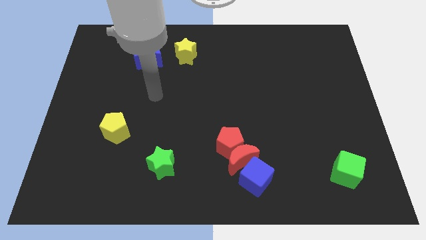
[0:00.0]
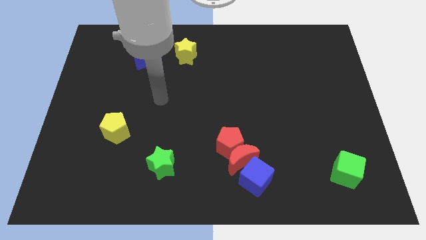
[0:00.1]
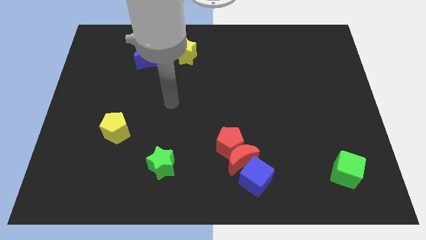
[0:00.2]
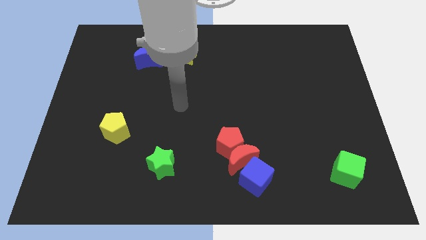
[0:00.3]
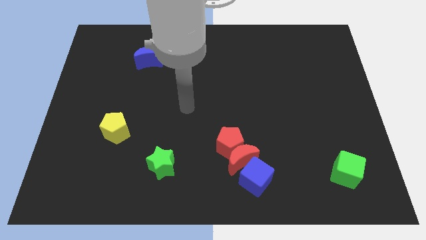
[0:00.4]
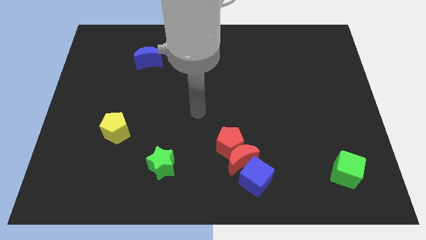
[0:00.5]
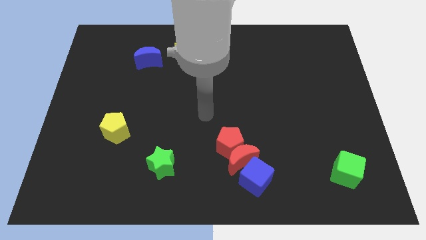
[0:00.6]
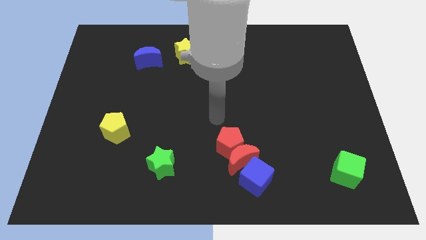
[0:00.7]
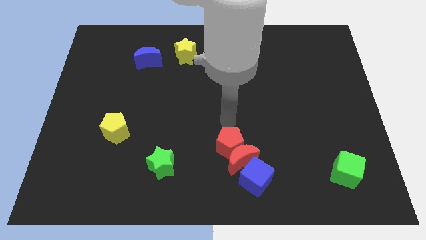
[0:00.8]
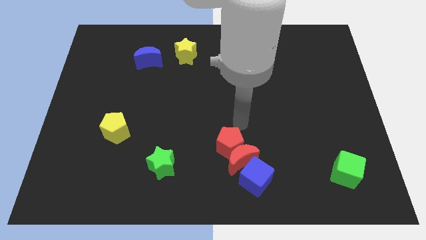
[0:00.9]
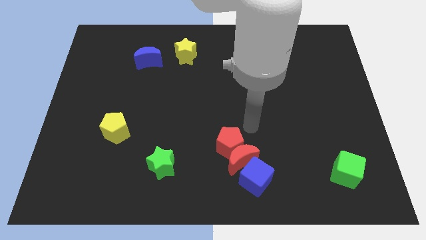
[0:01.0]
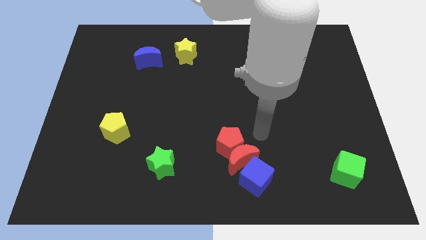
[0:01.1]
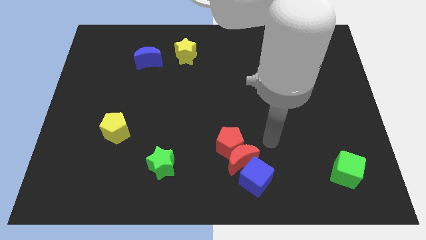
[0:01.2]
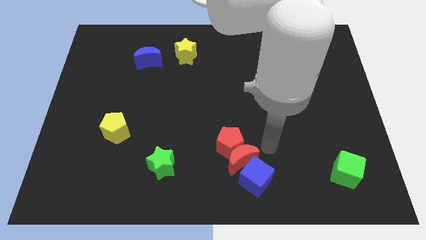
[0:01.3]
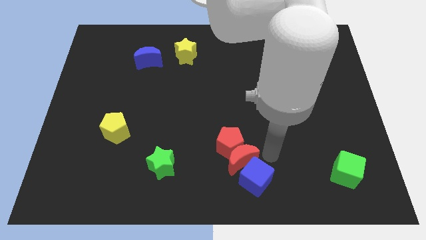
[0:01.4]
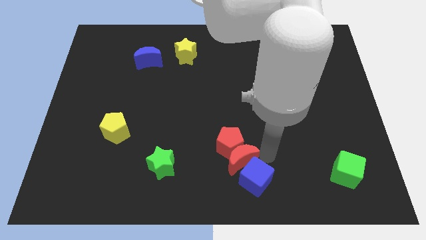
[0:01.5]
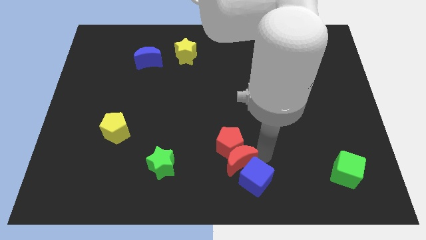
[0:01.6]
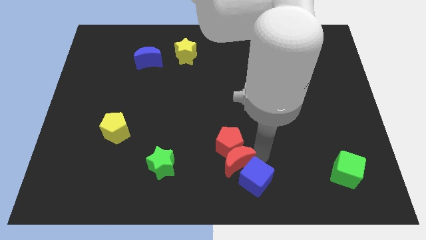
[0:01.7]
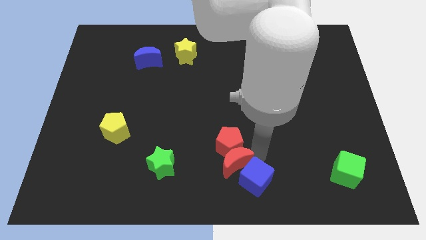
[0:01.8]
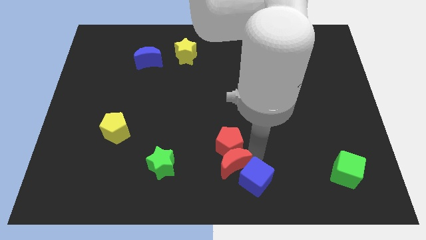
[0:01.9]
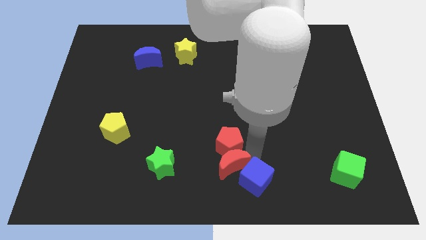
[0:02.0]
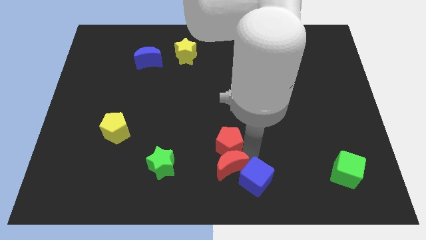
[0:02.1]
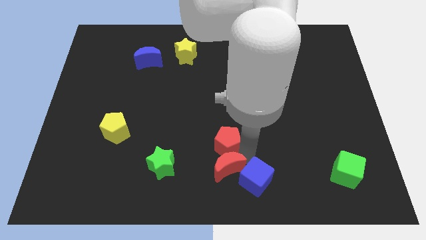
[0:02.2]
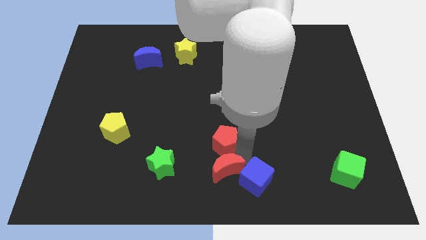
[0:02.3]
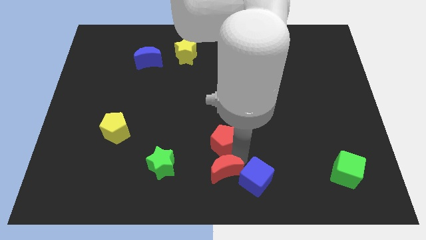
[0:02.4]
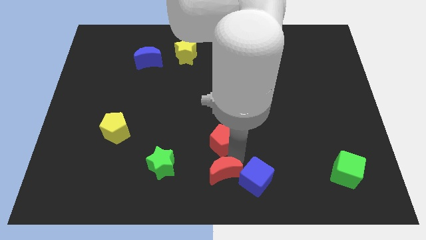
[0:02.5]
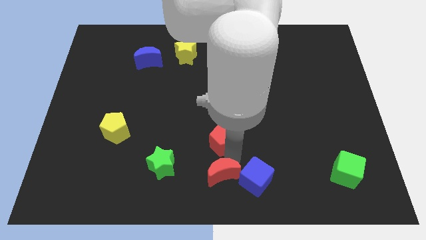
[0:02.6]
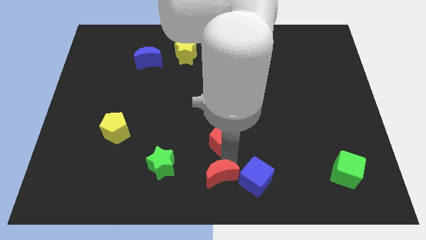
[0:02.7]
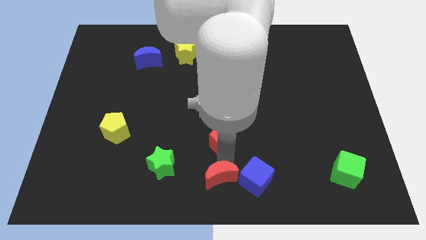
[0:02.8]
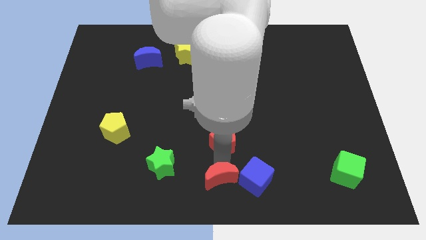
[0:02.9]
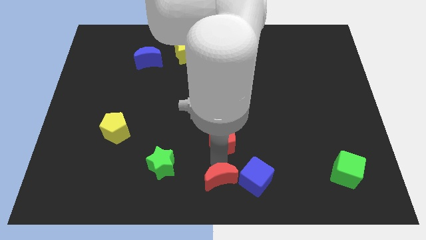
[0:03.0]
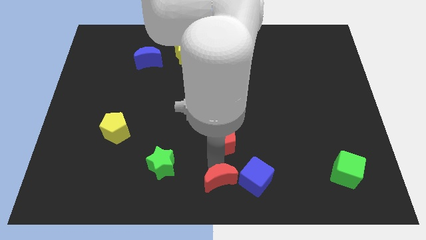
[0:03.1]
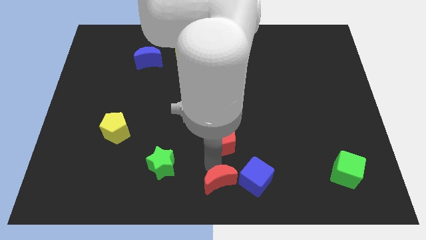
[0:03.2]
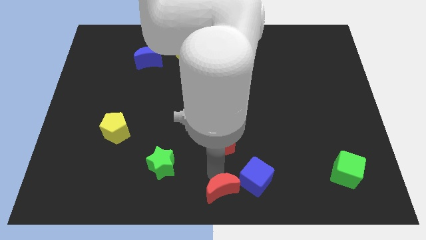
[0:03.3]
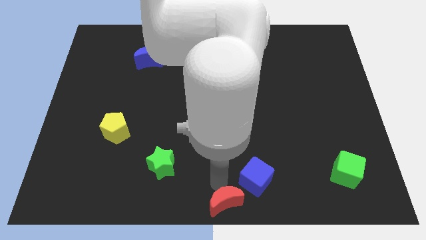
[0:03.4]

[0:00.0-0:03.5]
separate the red moon from the red pentagon and blue cube

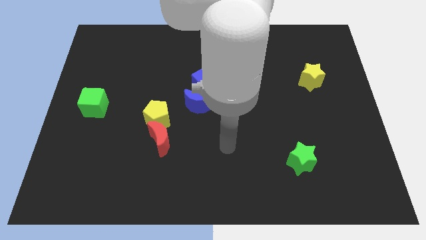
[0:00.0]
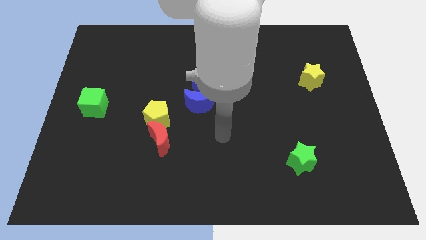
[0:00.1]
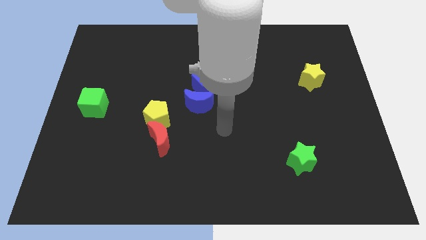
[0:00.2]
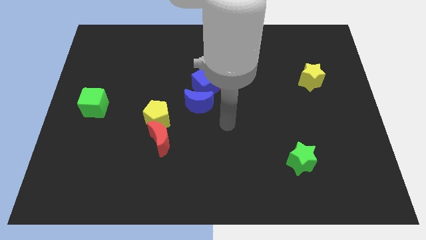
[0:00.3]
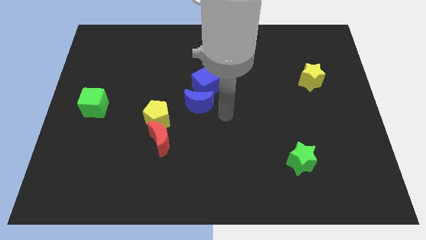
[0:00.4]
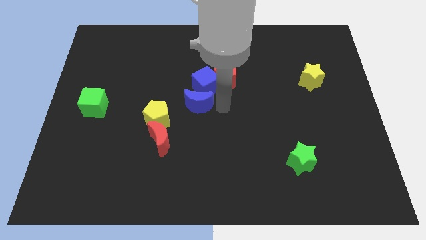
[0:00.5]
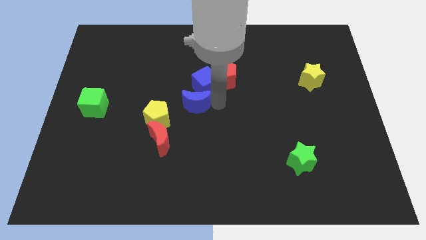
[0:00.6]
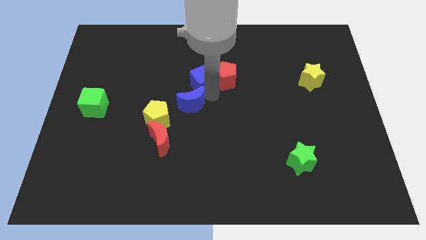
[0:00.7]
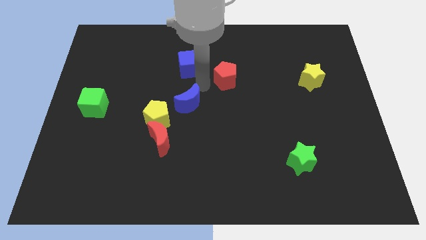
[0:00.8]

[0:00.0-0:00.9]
move the red pentagon away from the blue cube

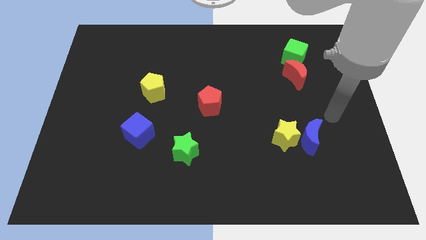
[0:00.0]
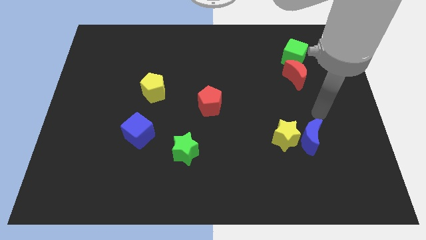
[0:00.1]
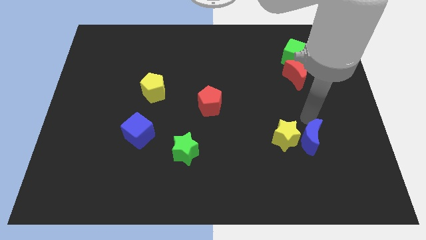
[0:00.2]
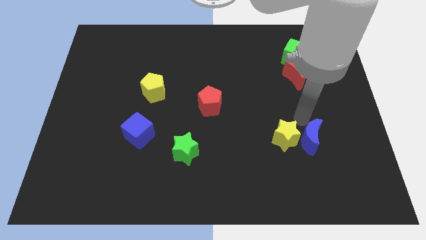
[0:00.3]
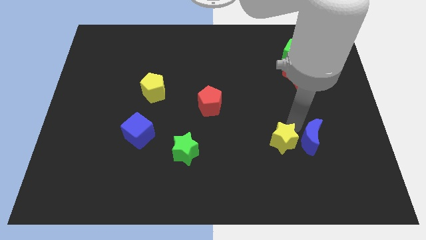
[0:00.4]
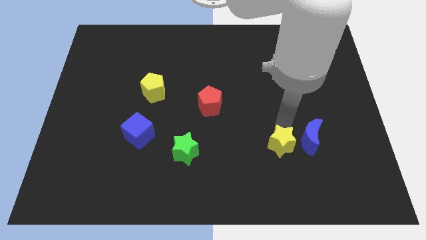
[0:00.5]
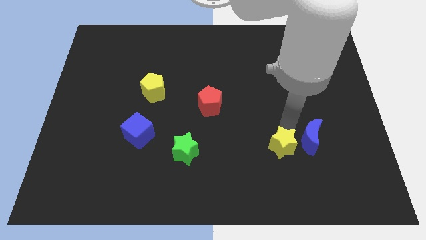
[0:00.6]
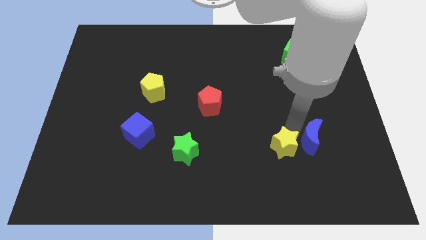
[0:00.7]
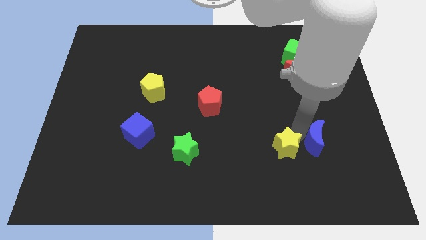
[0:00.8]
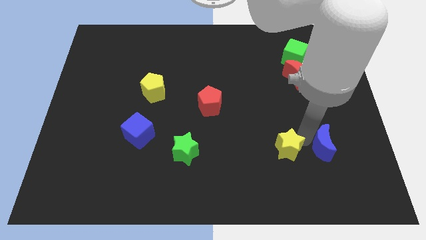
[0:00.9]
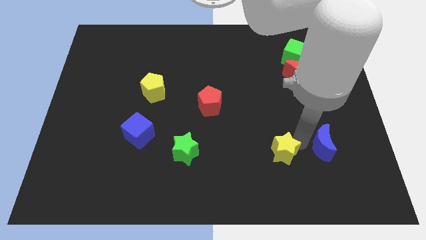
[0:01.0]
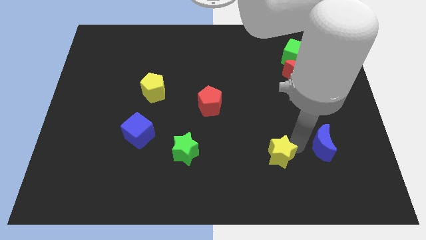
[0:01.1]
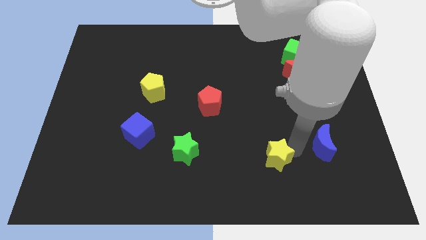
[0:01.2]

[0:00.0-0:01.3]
separate the blue moon from the yellow star

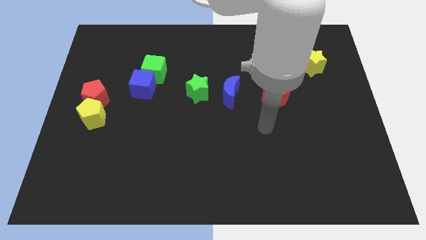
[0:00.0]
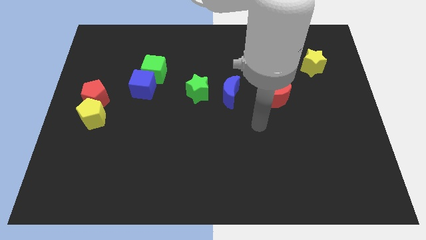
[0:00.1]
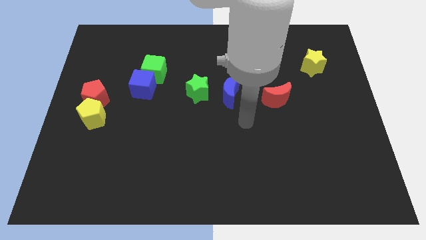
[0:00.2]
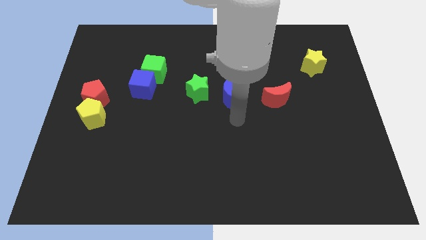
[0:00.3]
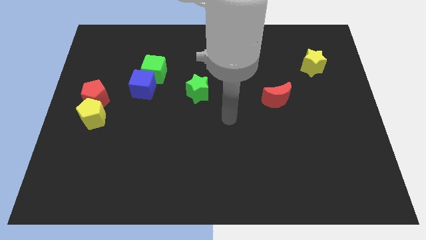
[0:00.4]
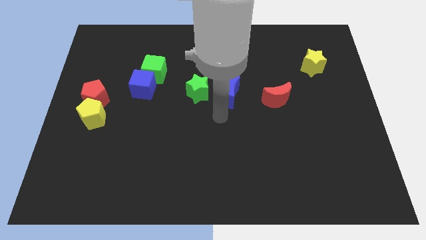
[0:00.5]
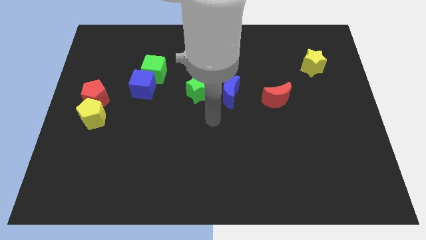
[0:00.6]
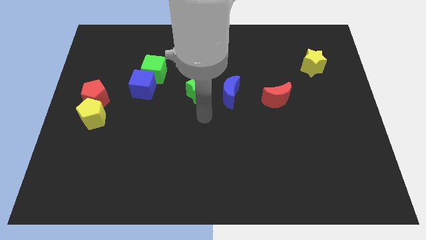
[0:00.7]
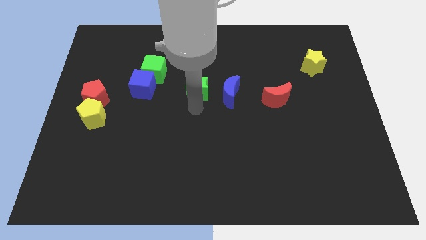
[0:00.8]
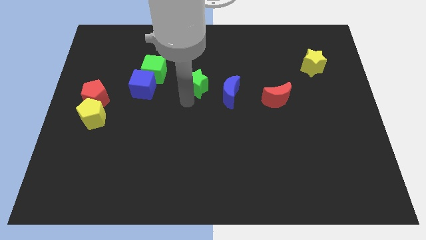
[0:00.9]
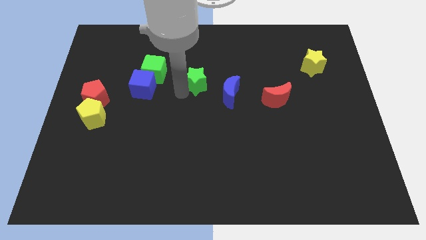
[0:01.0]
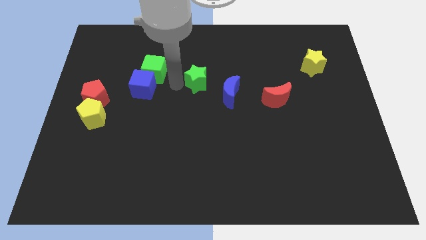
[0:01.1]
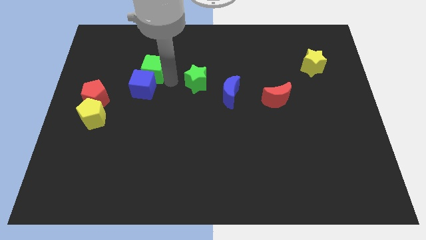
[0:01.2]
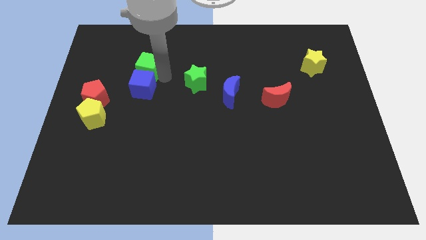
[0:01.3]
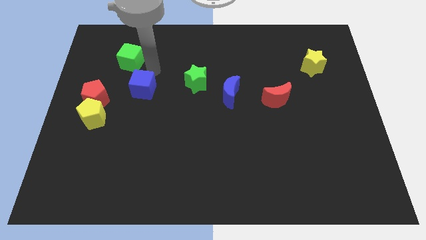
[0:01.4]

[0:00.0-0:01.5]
separate the blue cube from the green cube

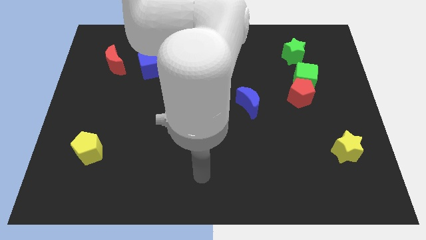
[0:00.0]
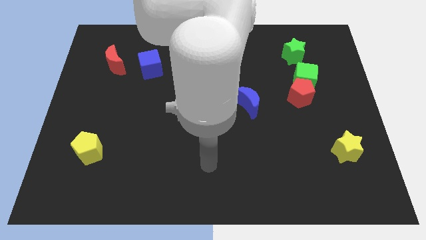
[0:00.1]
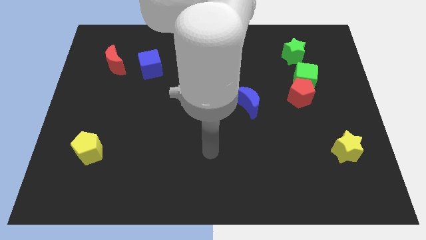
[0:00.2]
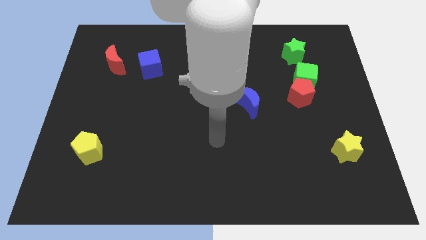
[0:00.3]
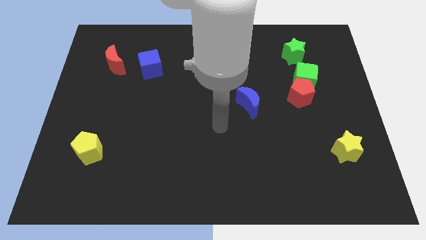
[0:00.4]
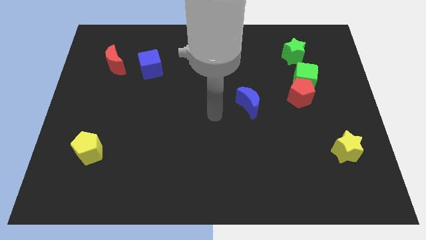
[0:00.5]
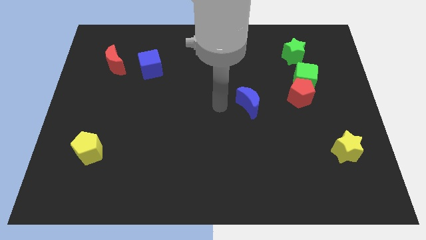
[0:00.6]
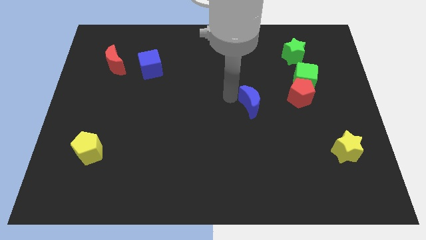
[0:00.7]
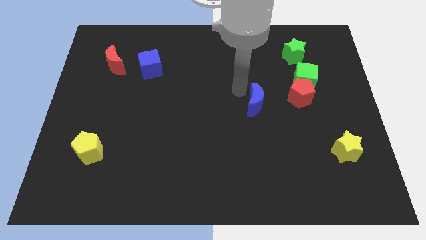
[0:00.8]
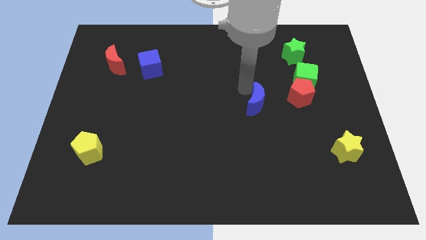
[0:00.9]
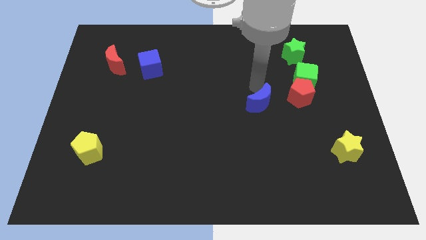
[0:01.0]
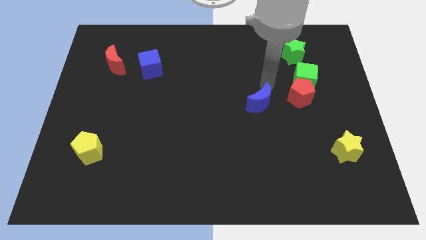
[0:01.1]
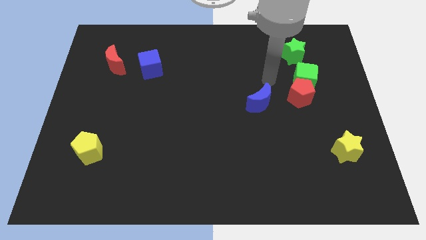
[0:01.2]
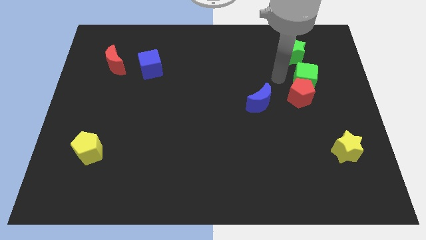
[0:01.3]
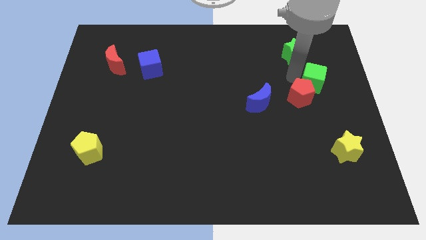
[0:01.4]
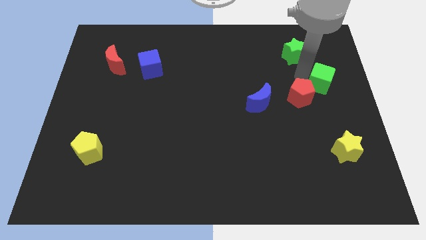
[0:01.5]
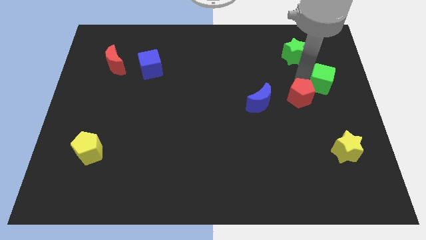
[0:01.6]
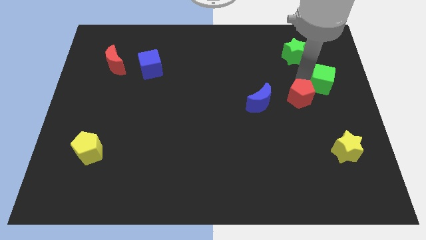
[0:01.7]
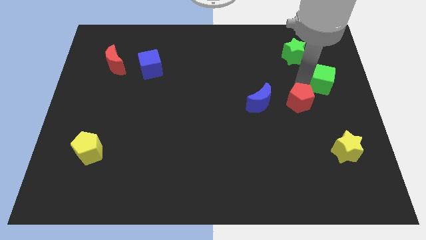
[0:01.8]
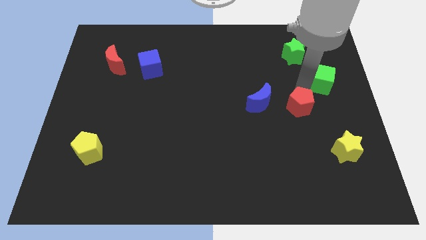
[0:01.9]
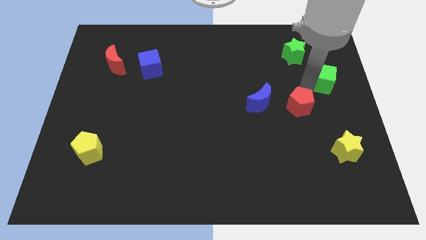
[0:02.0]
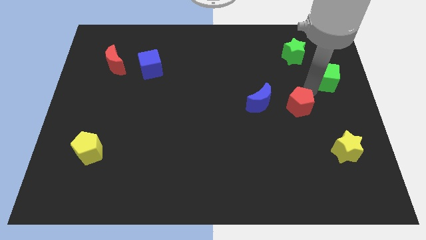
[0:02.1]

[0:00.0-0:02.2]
move the red pentagon away from the green cube
